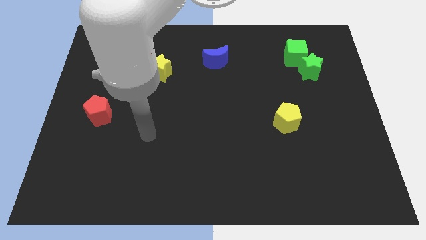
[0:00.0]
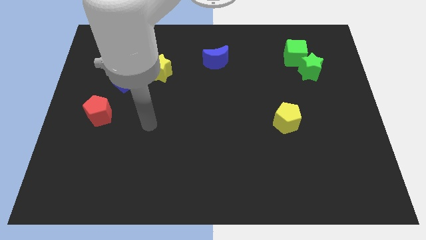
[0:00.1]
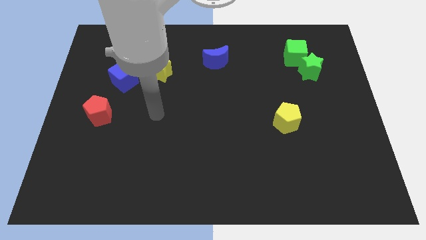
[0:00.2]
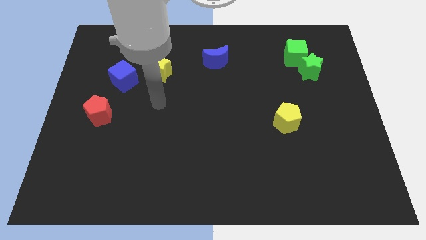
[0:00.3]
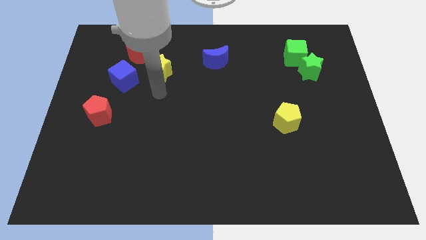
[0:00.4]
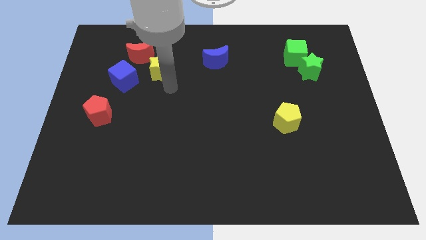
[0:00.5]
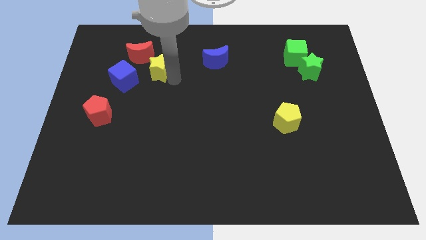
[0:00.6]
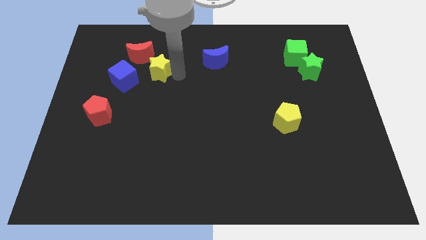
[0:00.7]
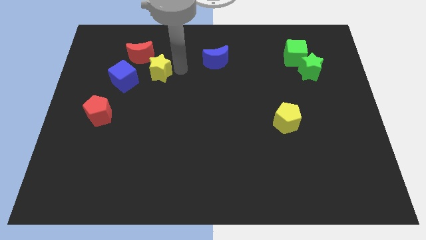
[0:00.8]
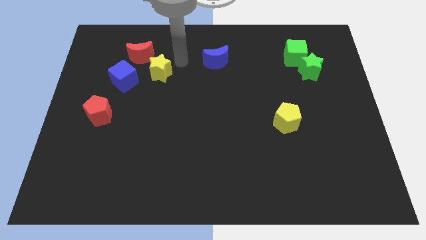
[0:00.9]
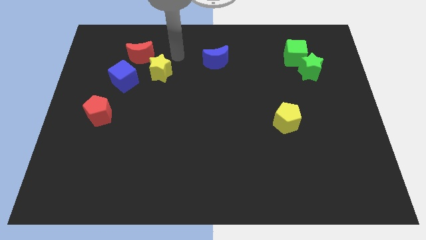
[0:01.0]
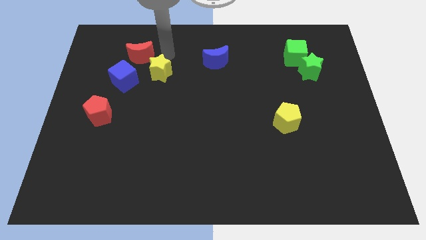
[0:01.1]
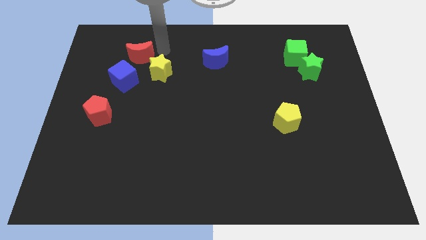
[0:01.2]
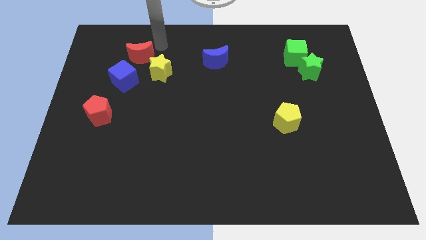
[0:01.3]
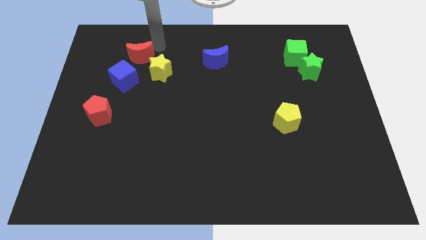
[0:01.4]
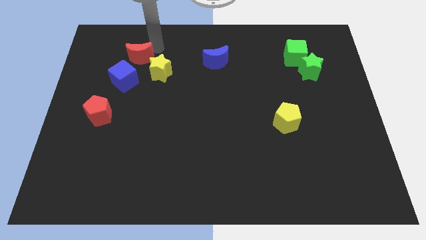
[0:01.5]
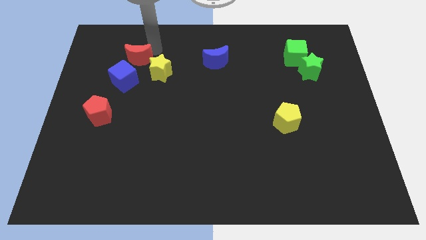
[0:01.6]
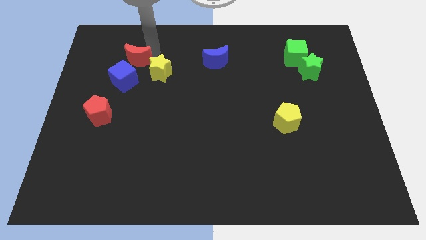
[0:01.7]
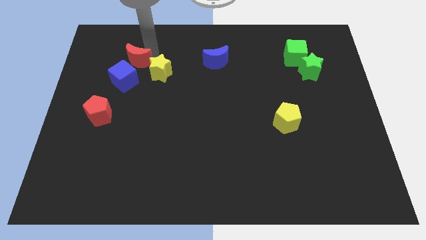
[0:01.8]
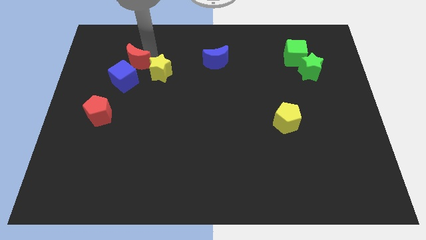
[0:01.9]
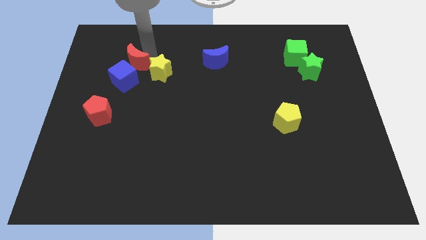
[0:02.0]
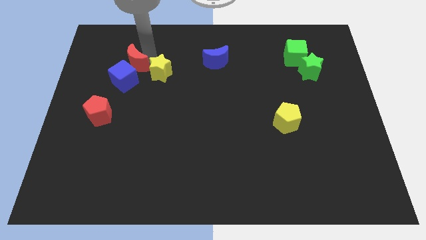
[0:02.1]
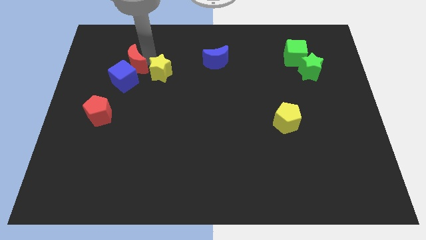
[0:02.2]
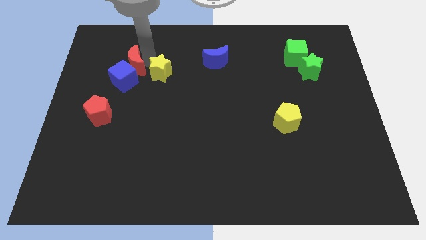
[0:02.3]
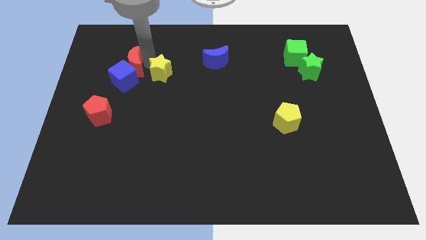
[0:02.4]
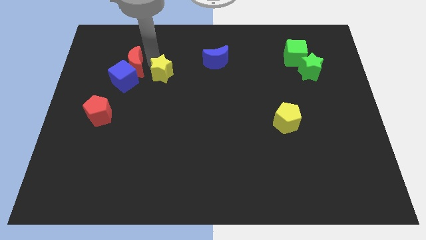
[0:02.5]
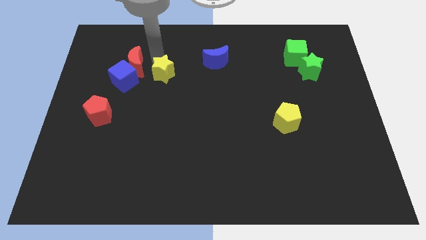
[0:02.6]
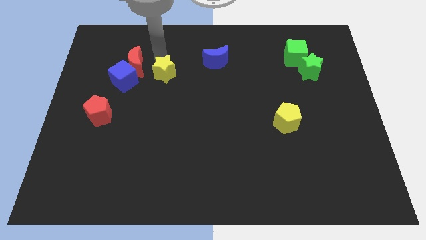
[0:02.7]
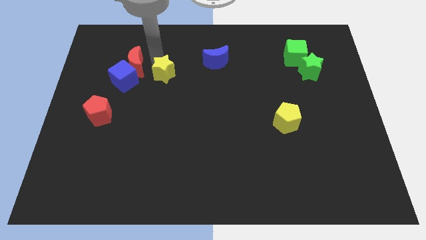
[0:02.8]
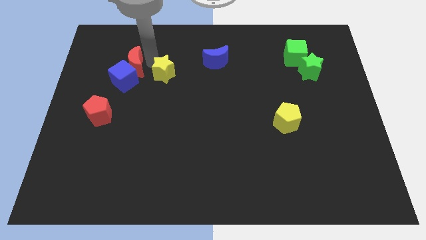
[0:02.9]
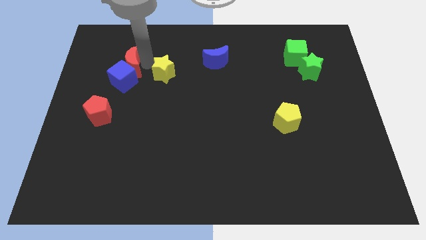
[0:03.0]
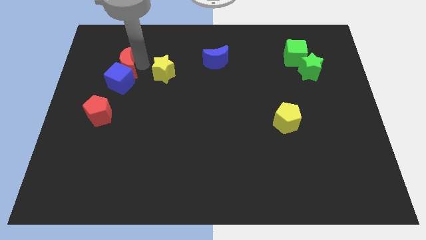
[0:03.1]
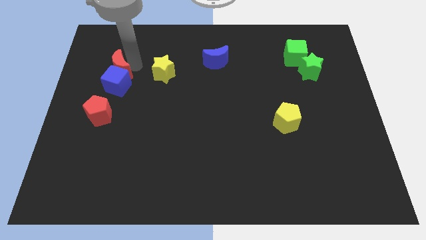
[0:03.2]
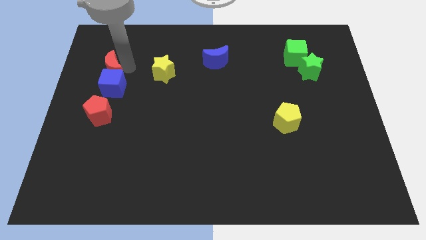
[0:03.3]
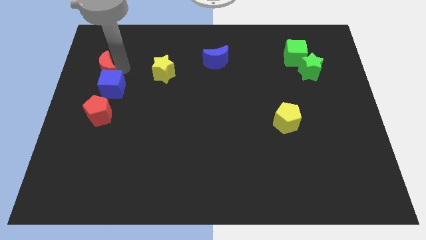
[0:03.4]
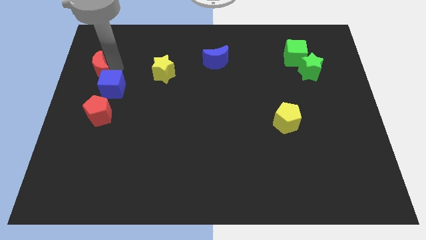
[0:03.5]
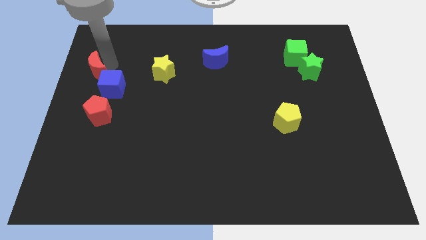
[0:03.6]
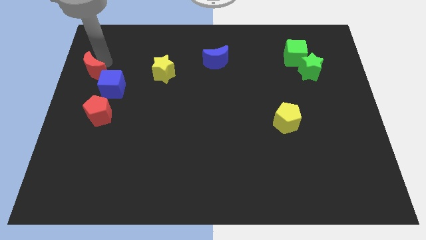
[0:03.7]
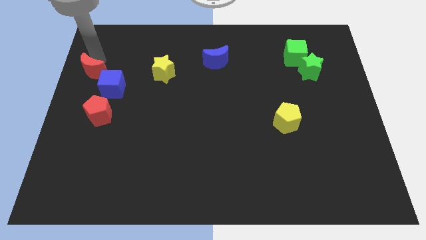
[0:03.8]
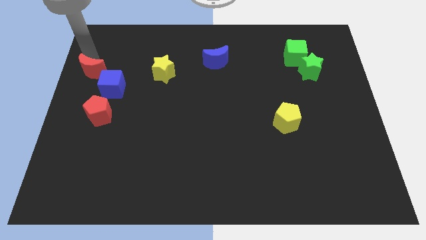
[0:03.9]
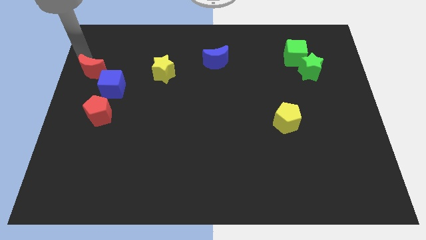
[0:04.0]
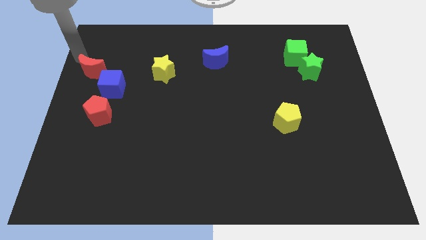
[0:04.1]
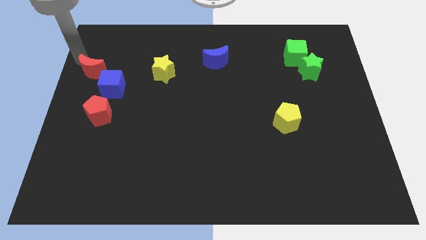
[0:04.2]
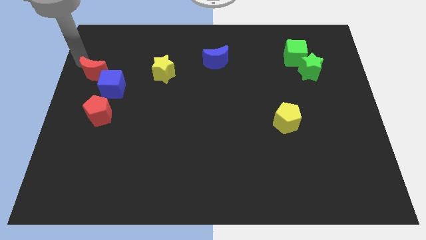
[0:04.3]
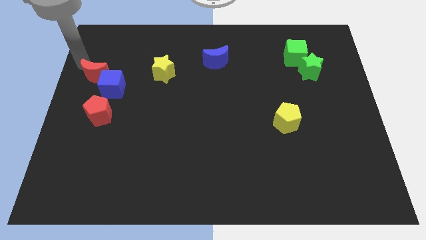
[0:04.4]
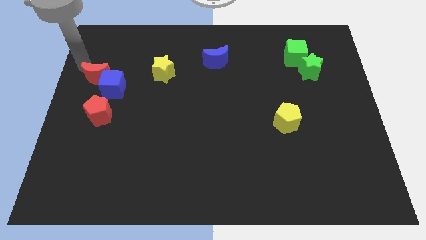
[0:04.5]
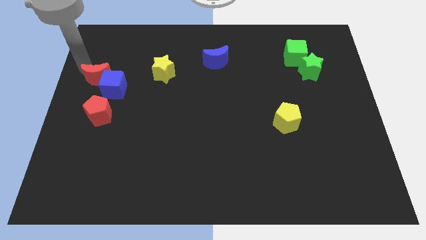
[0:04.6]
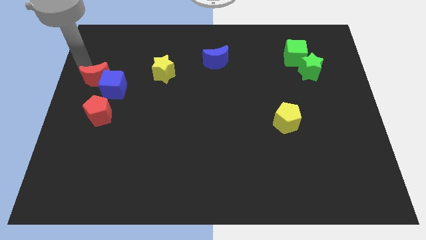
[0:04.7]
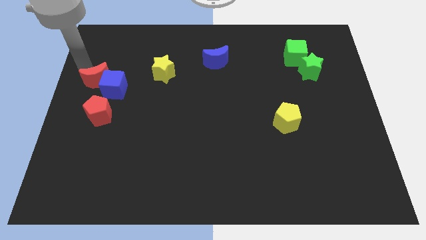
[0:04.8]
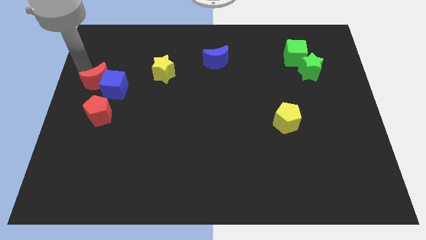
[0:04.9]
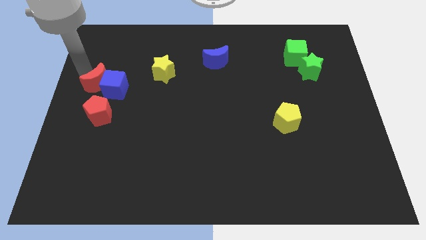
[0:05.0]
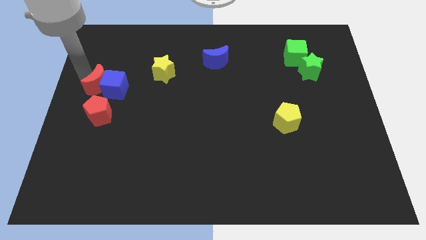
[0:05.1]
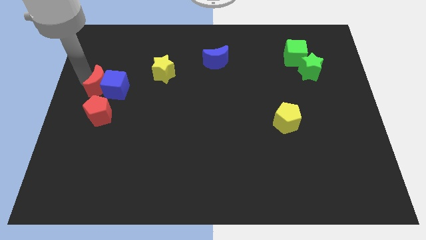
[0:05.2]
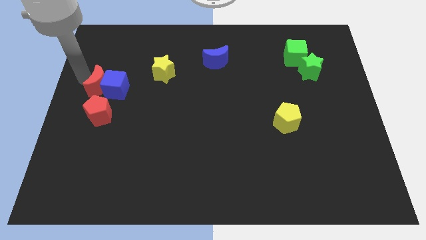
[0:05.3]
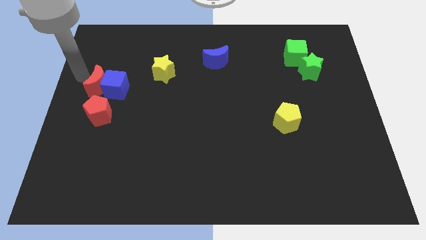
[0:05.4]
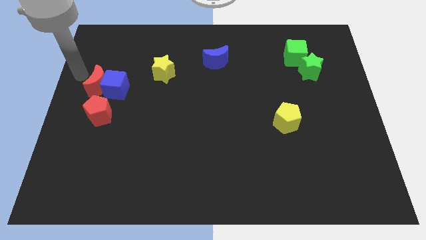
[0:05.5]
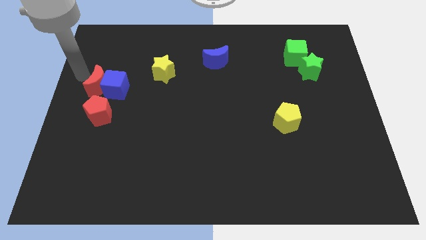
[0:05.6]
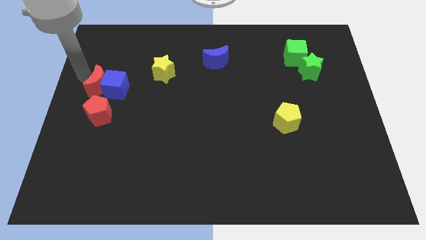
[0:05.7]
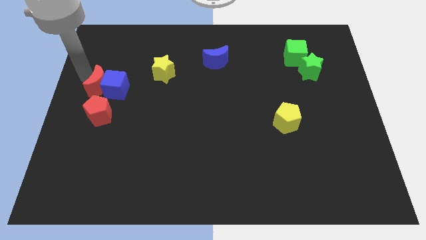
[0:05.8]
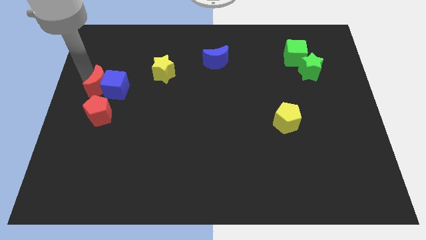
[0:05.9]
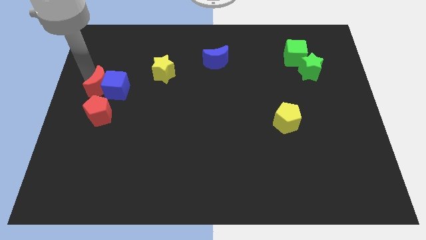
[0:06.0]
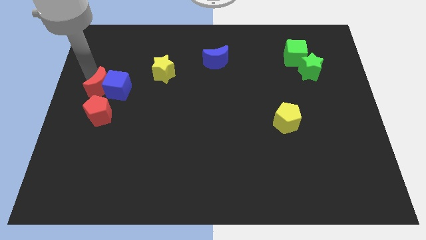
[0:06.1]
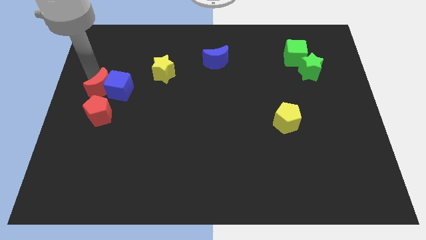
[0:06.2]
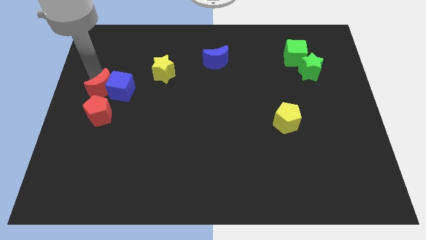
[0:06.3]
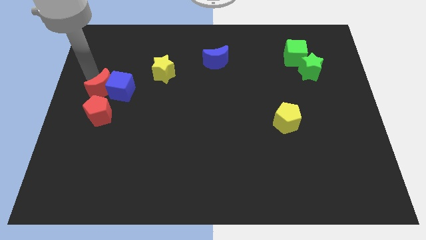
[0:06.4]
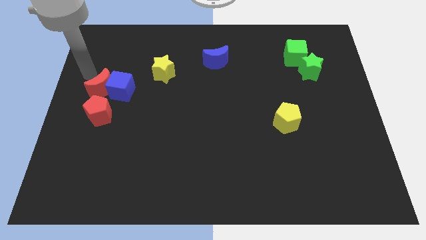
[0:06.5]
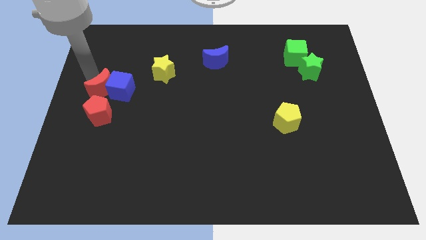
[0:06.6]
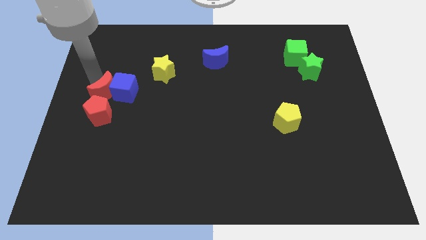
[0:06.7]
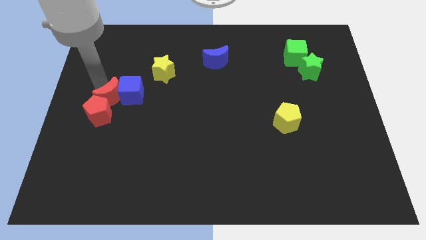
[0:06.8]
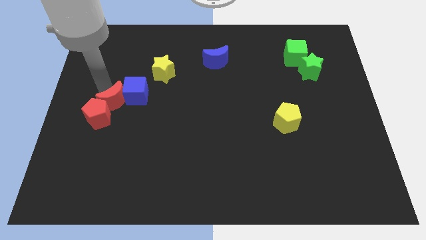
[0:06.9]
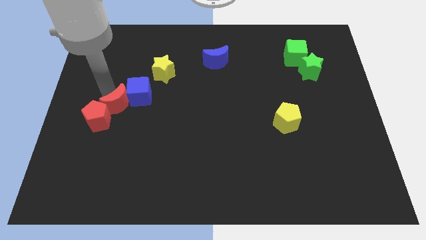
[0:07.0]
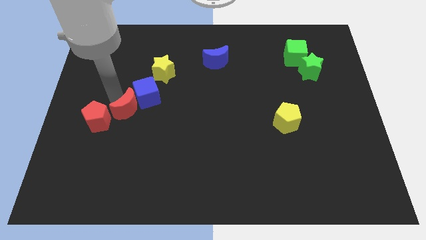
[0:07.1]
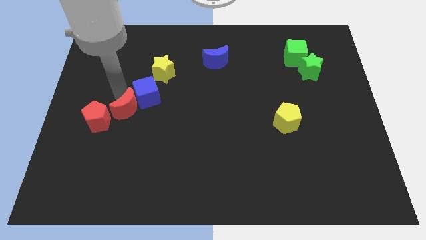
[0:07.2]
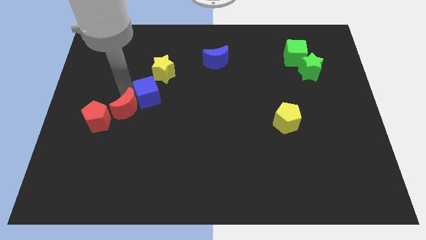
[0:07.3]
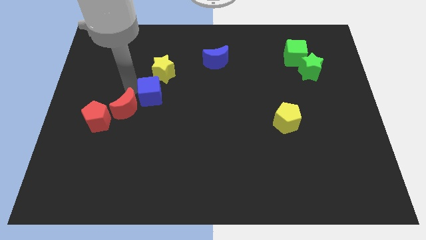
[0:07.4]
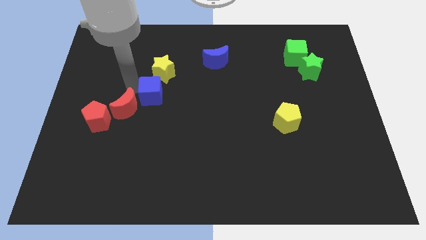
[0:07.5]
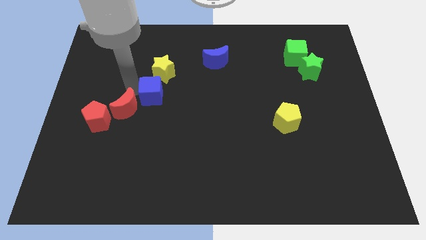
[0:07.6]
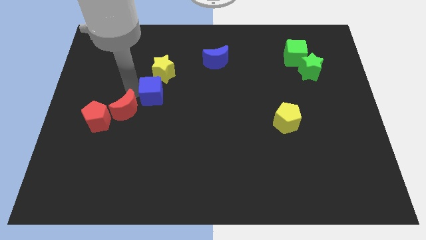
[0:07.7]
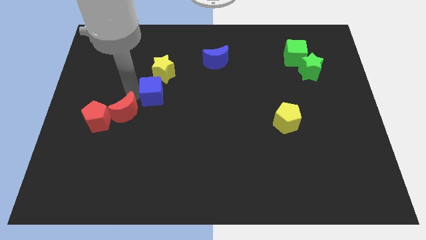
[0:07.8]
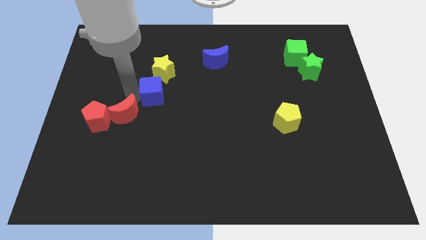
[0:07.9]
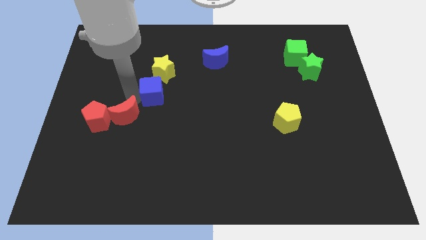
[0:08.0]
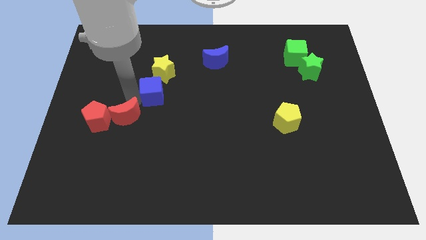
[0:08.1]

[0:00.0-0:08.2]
slide the red moon downwards

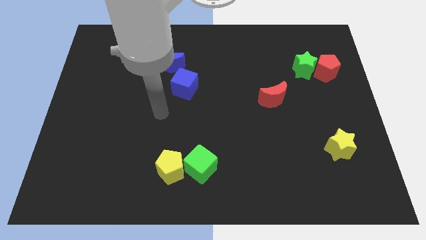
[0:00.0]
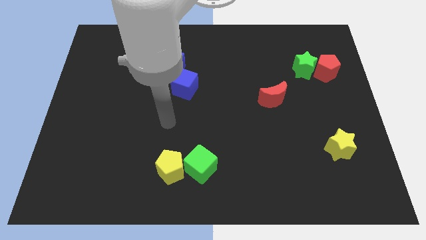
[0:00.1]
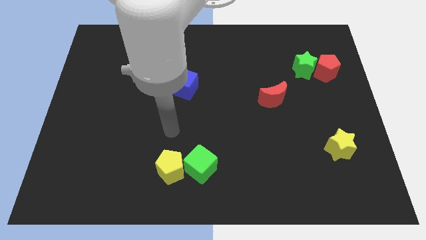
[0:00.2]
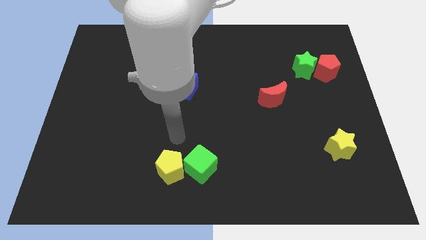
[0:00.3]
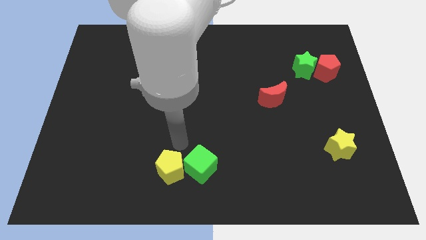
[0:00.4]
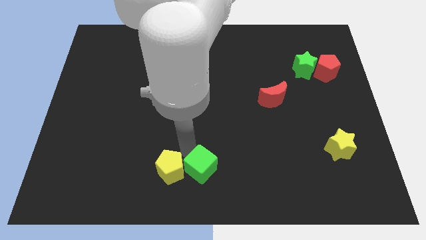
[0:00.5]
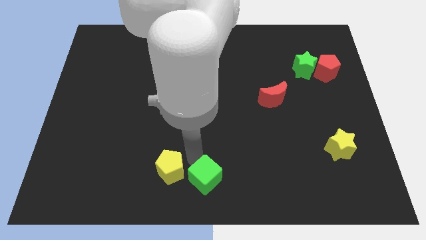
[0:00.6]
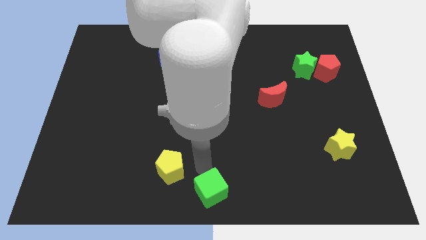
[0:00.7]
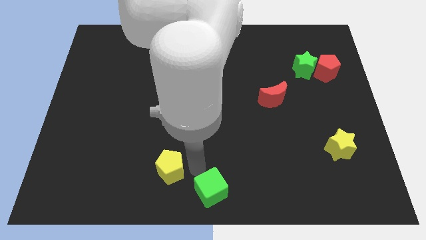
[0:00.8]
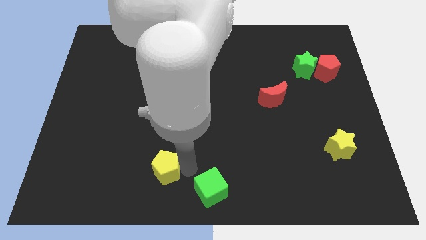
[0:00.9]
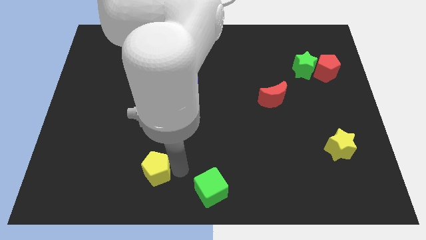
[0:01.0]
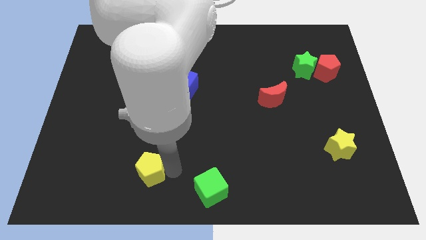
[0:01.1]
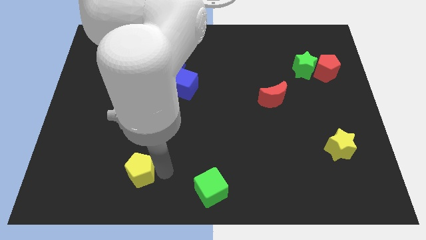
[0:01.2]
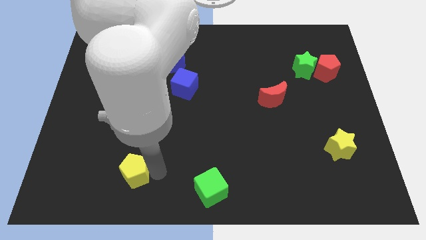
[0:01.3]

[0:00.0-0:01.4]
slide the yellow pentagon left slightly
